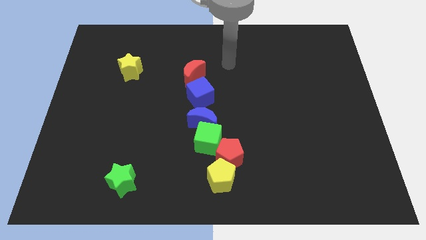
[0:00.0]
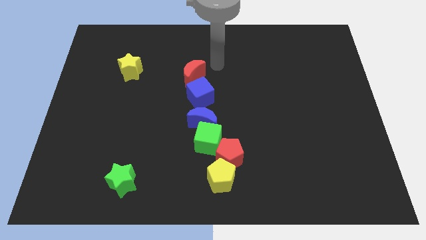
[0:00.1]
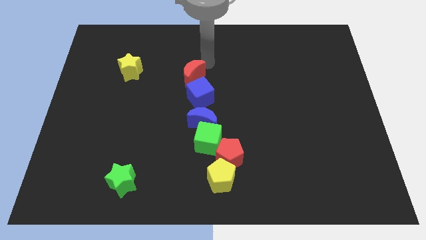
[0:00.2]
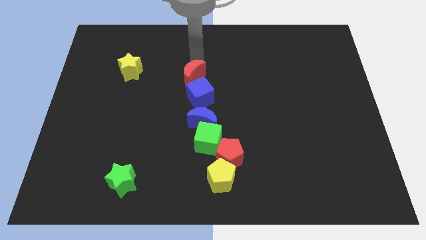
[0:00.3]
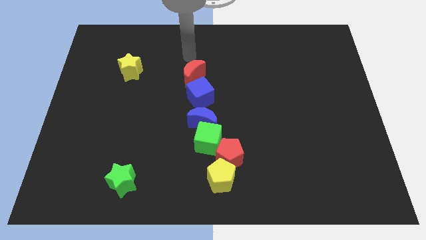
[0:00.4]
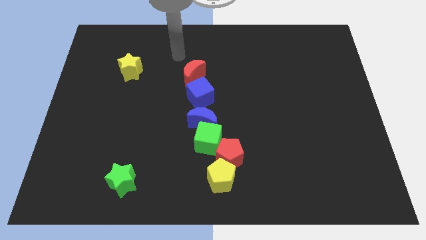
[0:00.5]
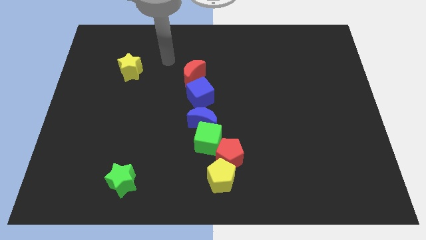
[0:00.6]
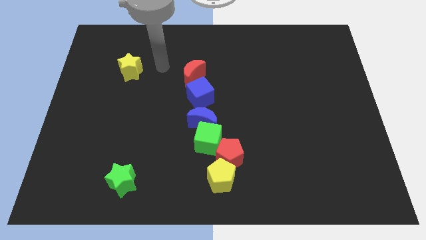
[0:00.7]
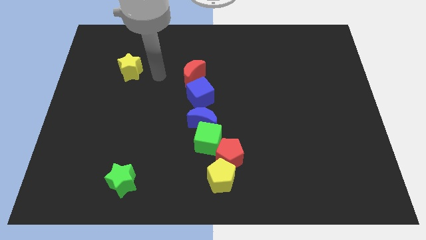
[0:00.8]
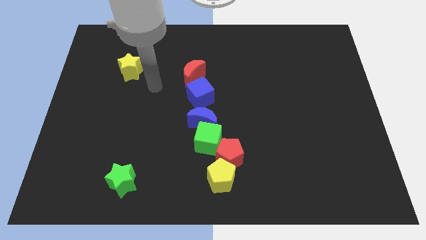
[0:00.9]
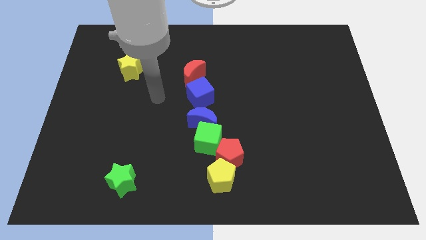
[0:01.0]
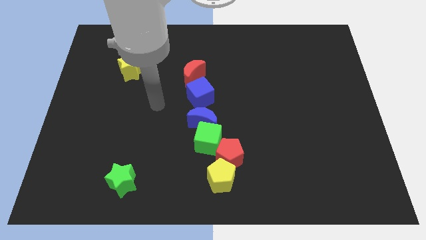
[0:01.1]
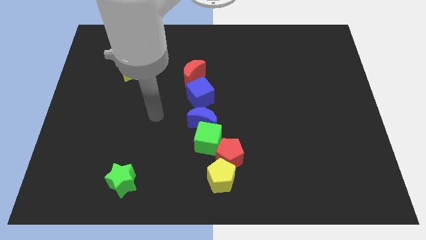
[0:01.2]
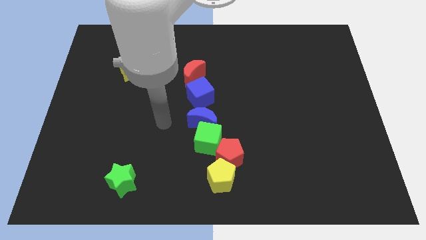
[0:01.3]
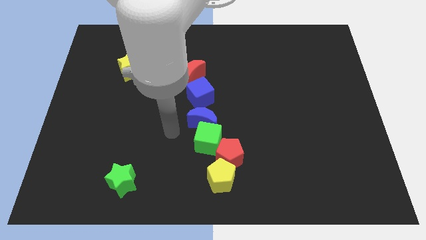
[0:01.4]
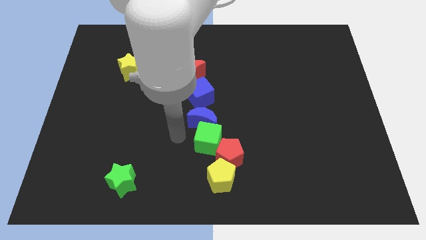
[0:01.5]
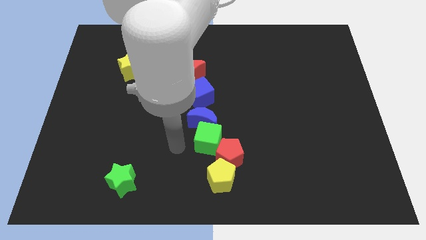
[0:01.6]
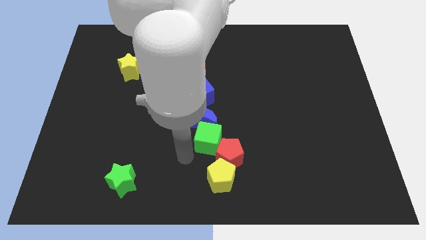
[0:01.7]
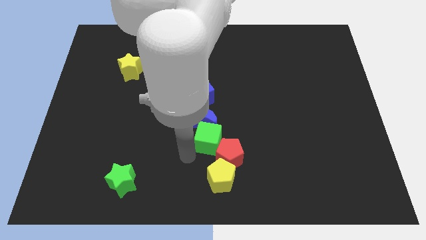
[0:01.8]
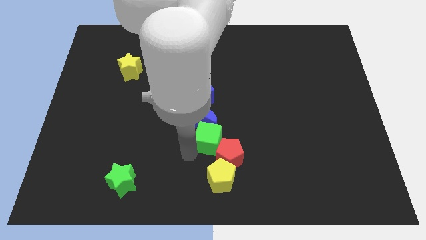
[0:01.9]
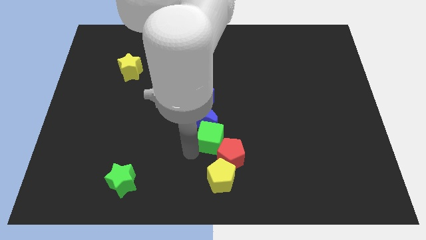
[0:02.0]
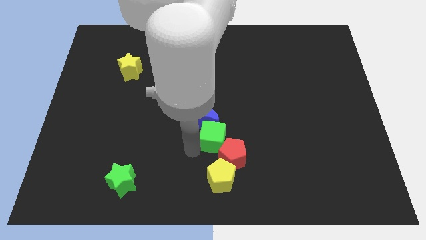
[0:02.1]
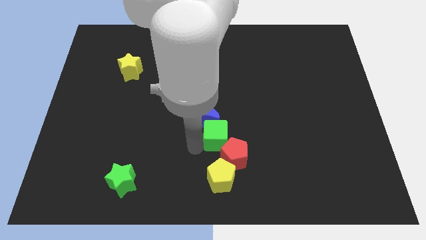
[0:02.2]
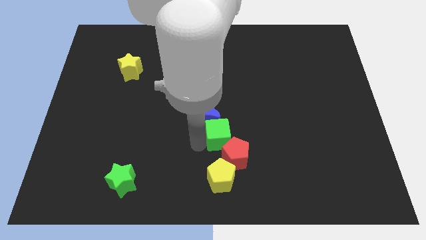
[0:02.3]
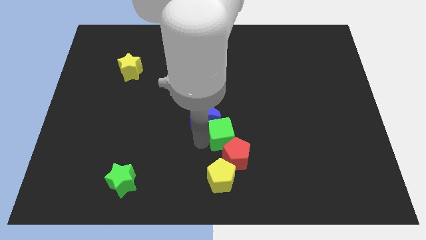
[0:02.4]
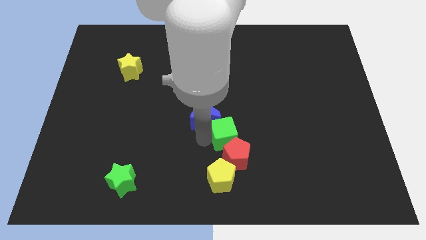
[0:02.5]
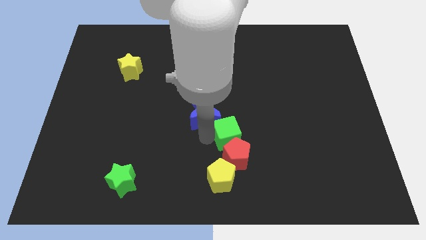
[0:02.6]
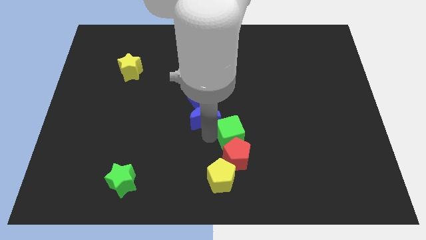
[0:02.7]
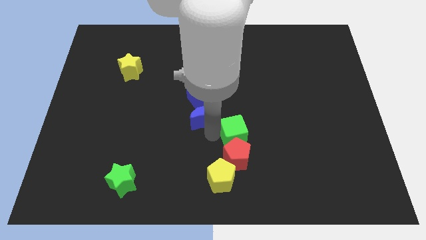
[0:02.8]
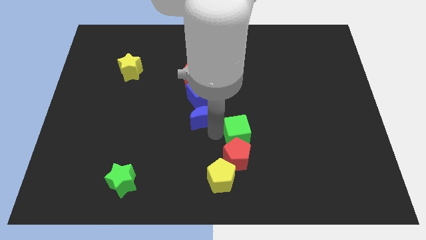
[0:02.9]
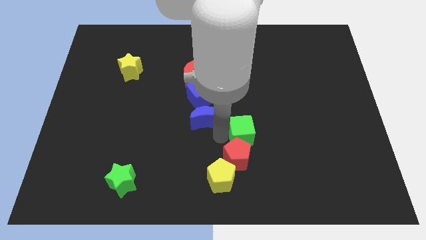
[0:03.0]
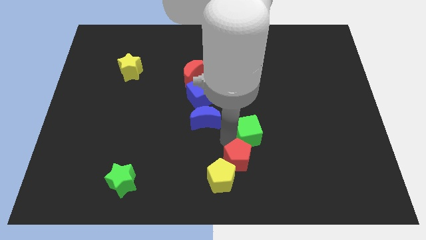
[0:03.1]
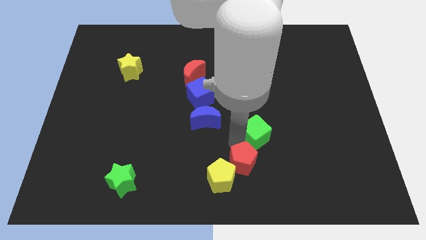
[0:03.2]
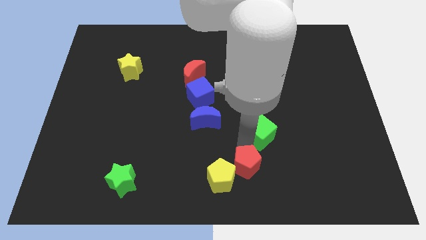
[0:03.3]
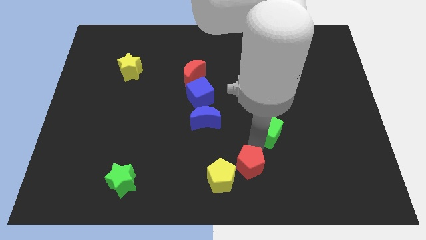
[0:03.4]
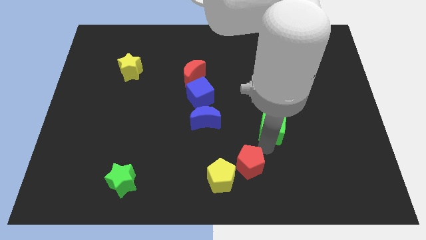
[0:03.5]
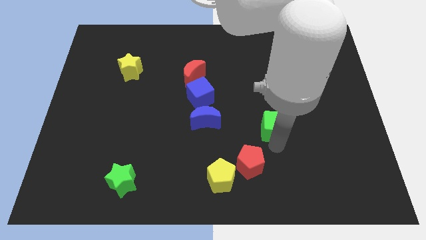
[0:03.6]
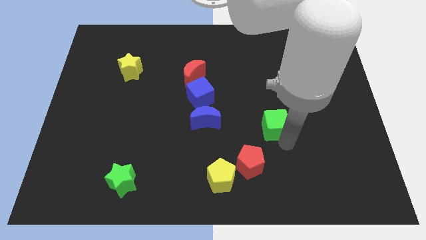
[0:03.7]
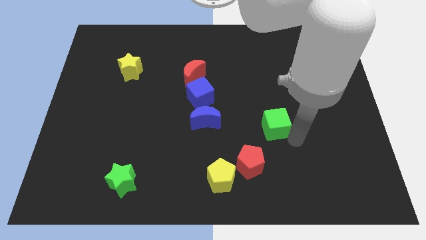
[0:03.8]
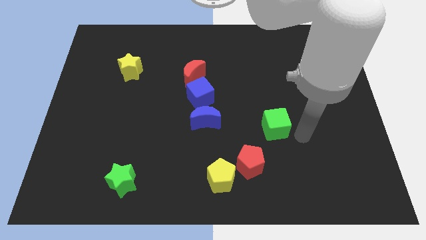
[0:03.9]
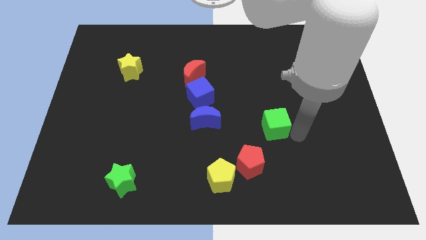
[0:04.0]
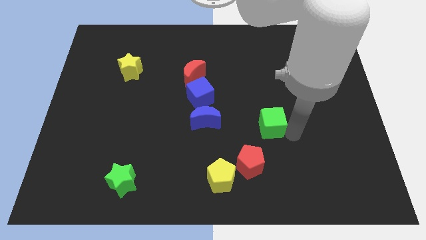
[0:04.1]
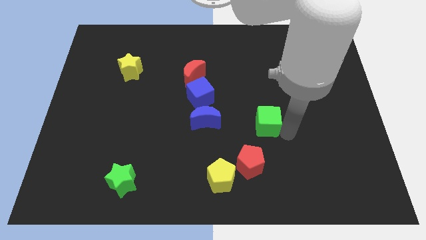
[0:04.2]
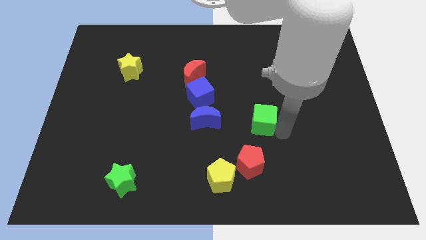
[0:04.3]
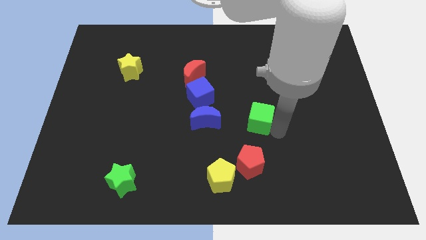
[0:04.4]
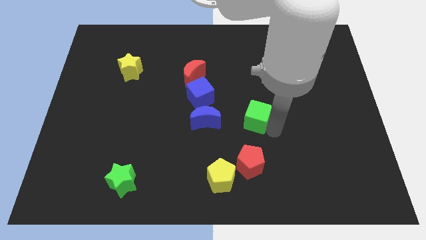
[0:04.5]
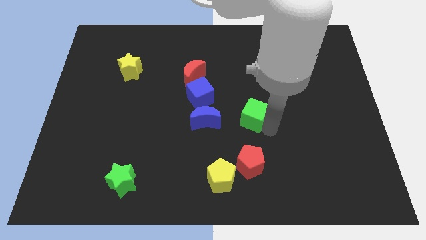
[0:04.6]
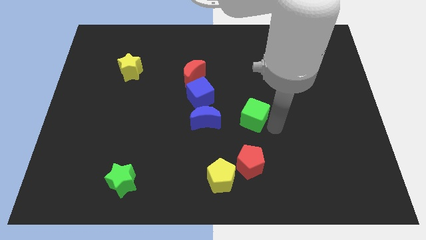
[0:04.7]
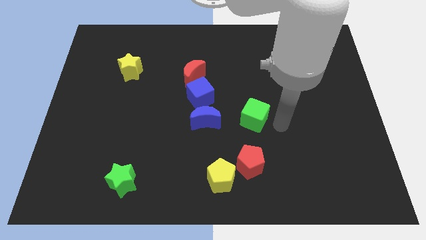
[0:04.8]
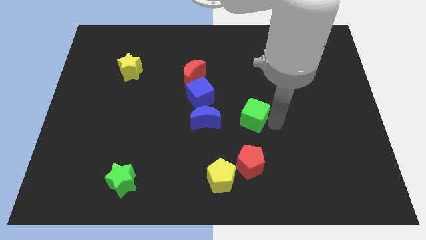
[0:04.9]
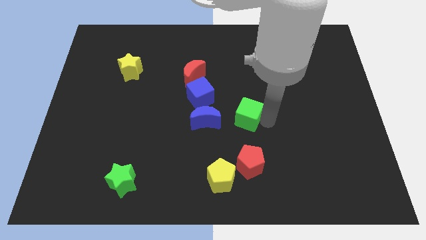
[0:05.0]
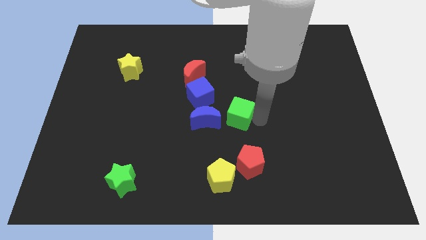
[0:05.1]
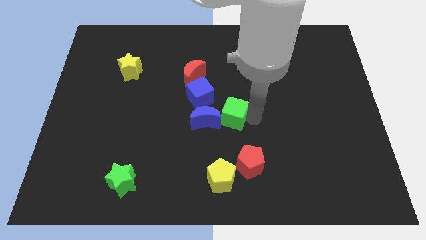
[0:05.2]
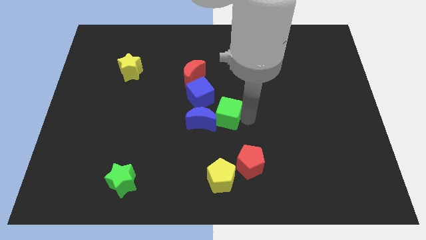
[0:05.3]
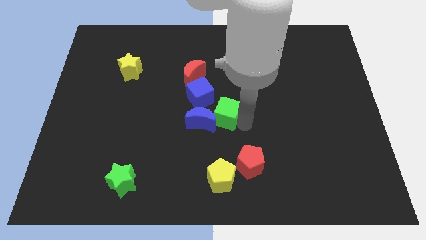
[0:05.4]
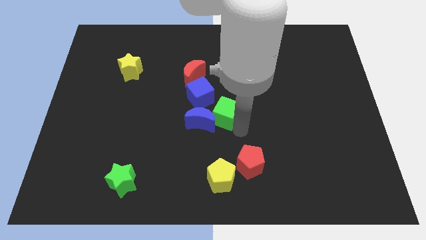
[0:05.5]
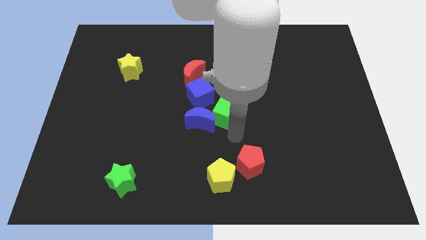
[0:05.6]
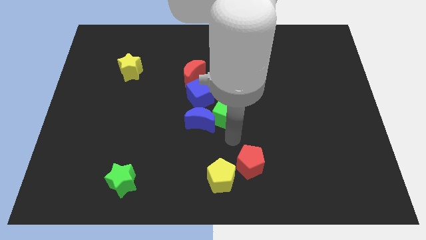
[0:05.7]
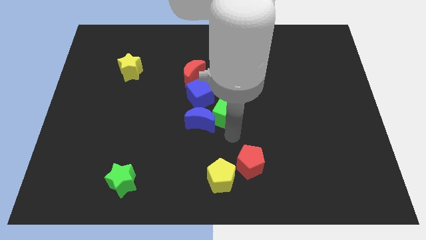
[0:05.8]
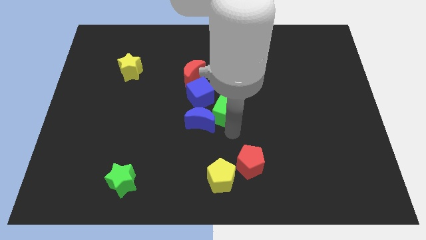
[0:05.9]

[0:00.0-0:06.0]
push the green cube upwards a bit

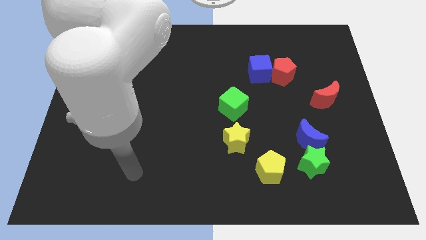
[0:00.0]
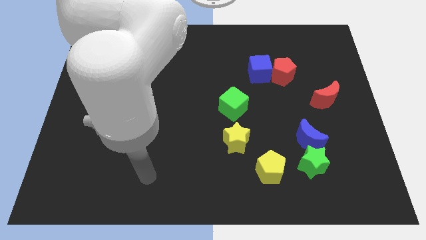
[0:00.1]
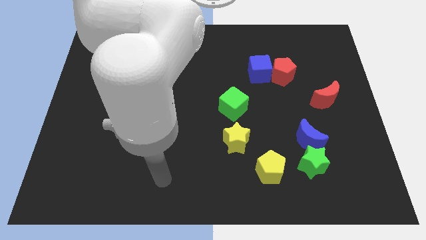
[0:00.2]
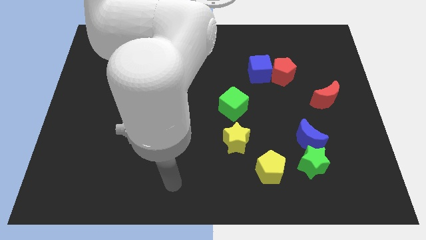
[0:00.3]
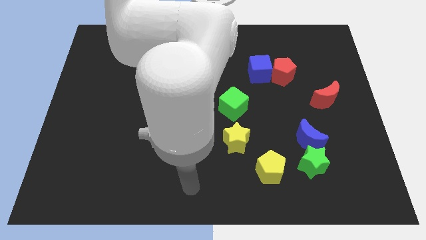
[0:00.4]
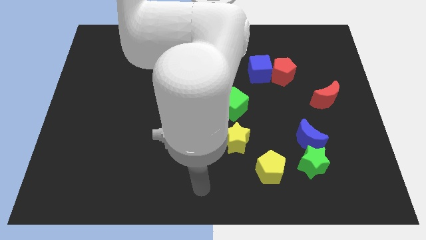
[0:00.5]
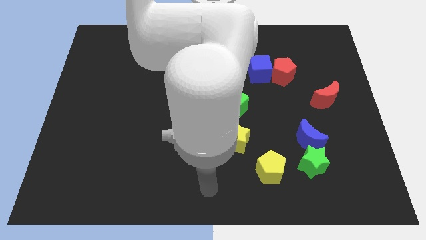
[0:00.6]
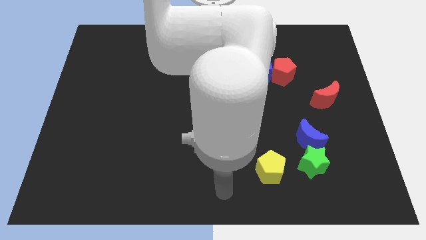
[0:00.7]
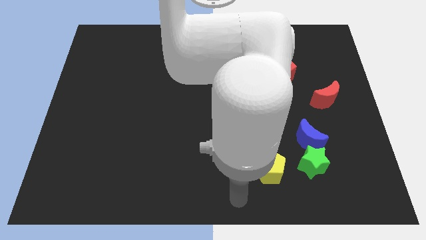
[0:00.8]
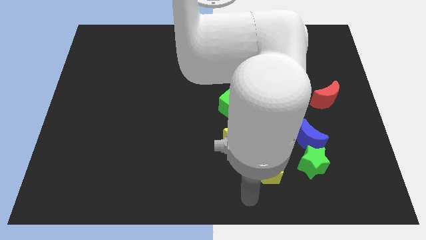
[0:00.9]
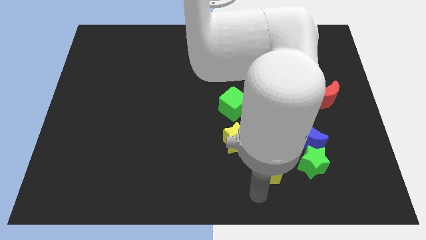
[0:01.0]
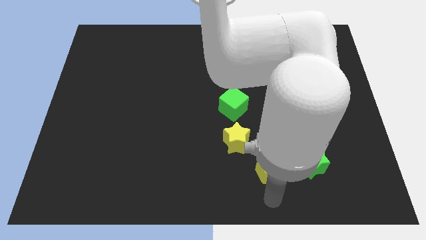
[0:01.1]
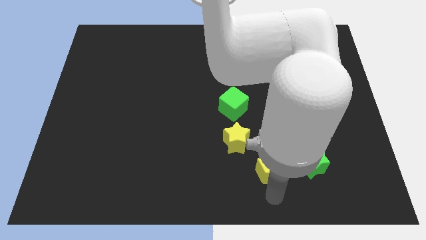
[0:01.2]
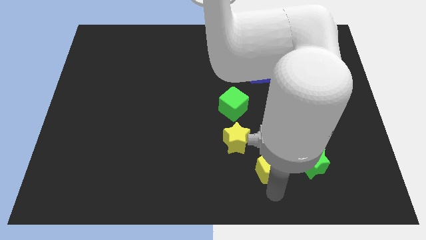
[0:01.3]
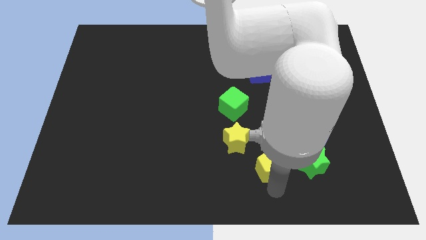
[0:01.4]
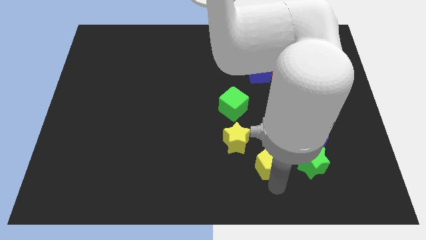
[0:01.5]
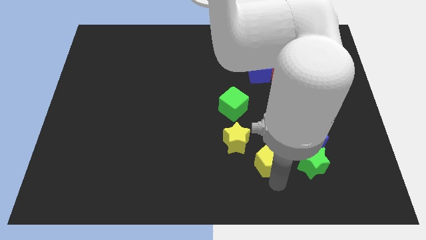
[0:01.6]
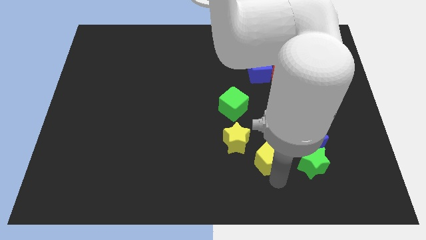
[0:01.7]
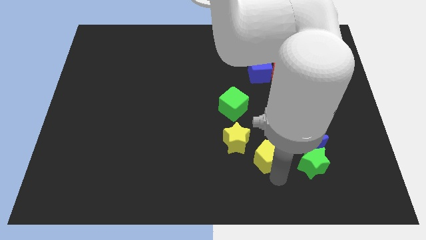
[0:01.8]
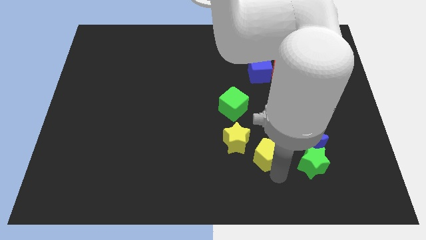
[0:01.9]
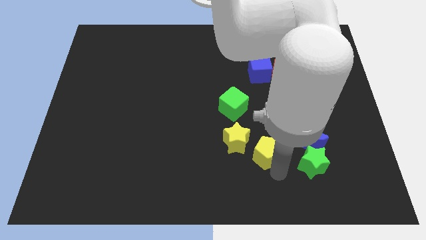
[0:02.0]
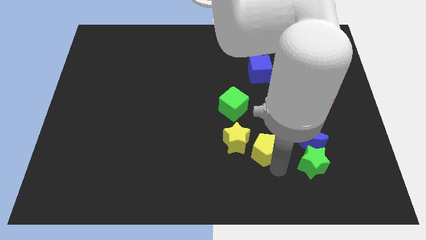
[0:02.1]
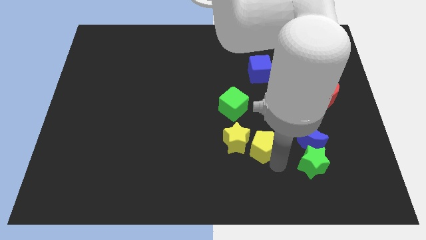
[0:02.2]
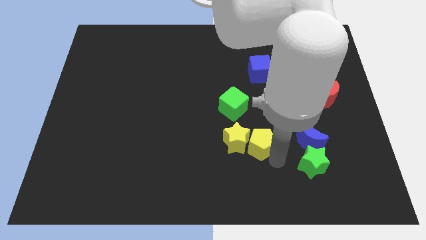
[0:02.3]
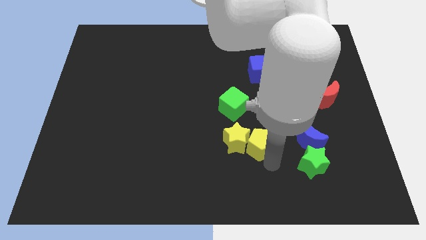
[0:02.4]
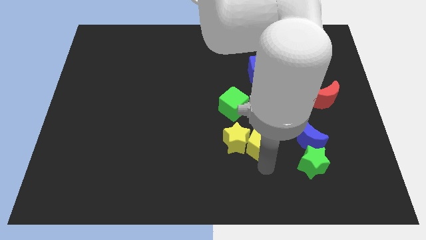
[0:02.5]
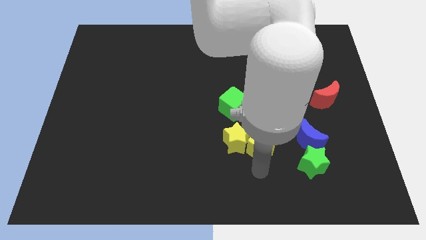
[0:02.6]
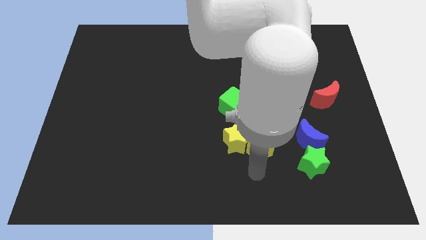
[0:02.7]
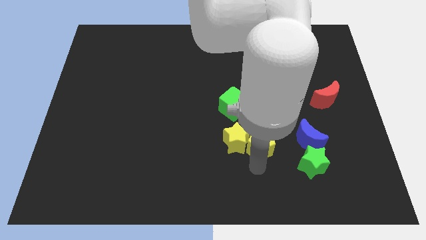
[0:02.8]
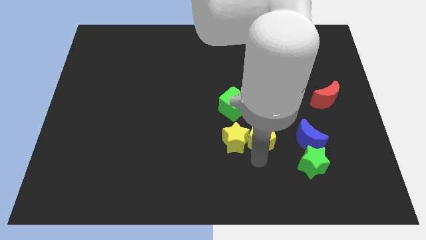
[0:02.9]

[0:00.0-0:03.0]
slightly move the yellow pentagon upwards
